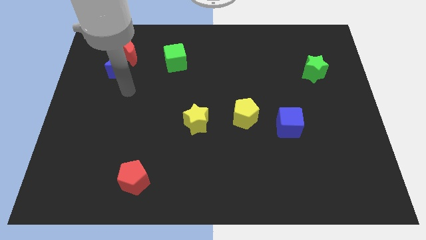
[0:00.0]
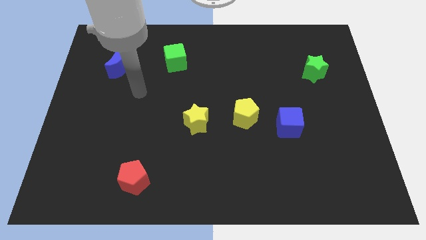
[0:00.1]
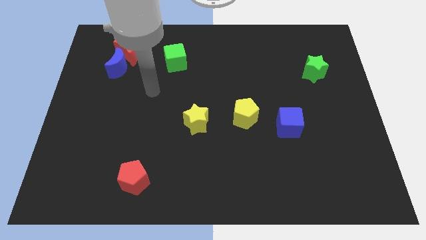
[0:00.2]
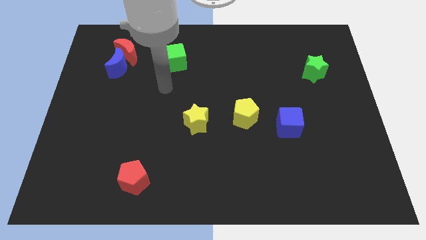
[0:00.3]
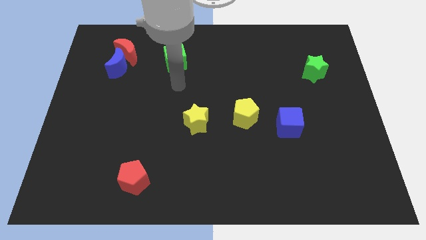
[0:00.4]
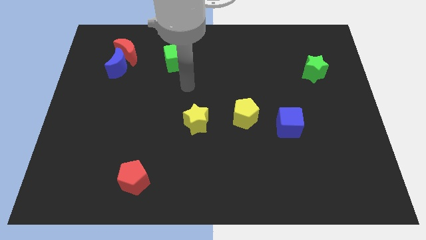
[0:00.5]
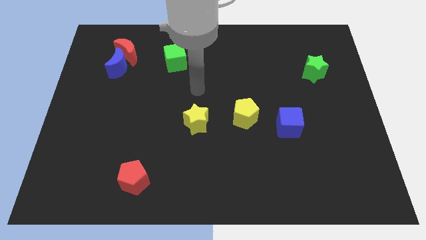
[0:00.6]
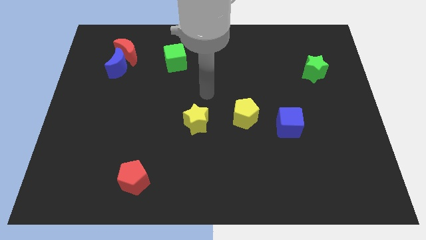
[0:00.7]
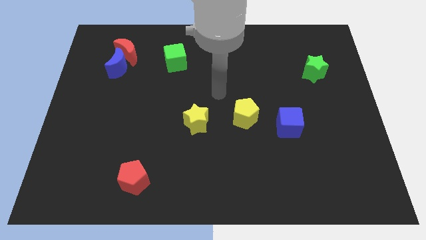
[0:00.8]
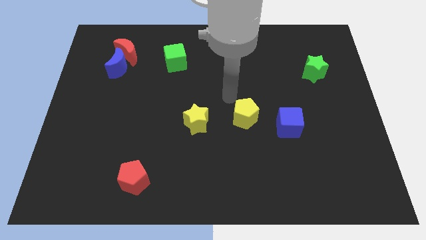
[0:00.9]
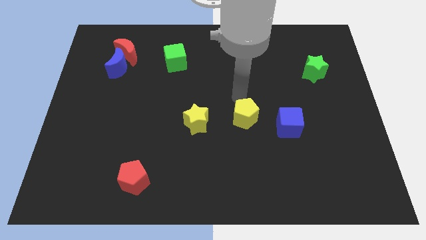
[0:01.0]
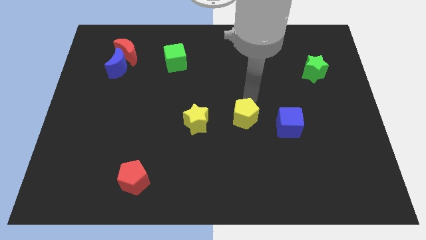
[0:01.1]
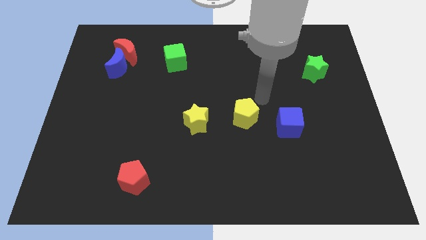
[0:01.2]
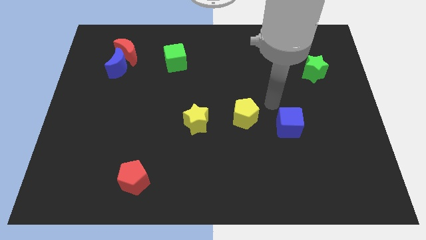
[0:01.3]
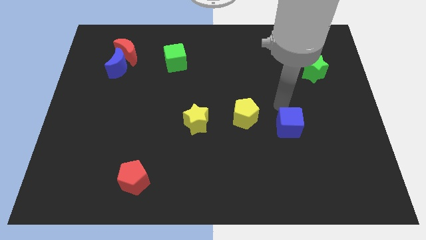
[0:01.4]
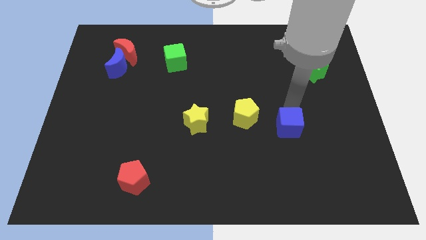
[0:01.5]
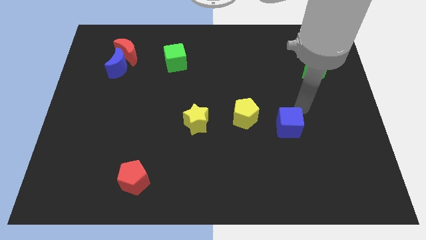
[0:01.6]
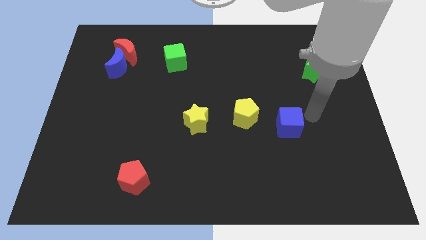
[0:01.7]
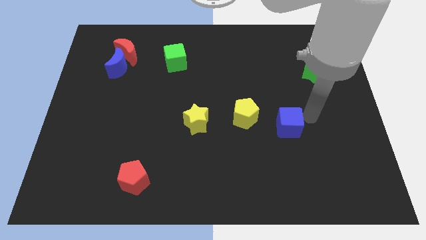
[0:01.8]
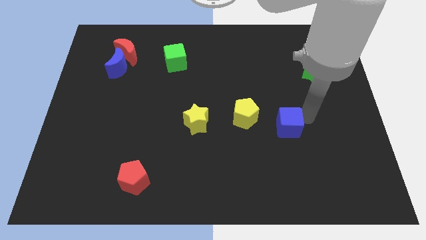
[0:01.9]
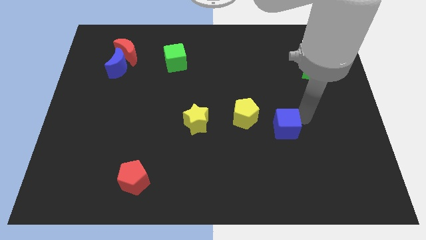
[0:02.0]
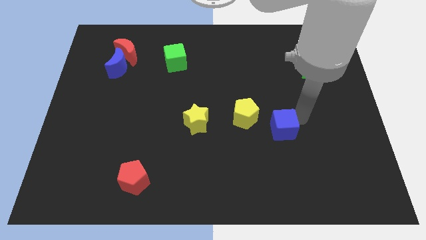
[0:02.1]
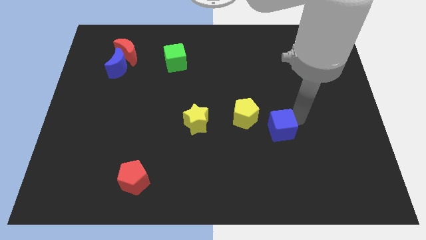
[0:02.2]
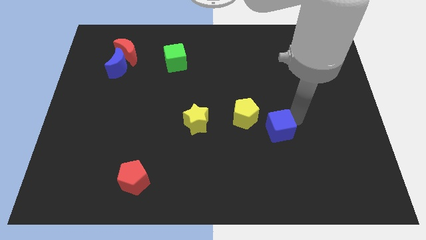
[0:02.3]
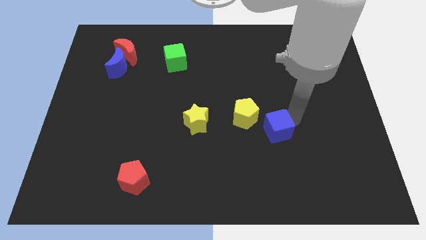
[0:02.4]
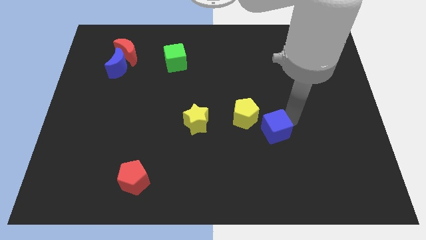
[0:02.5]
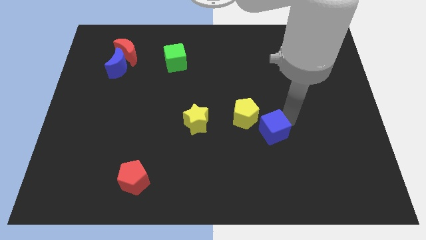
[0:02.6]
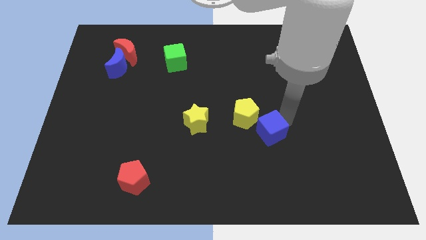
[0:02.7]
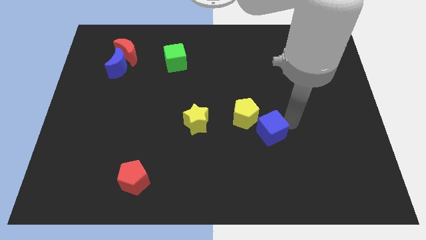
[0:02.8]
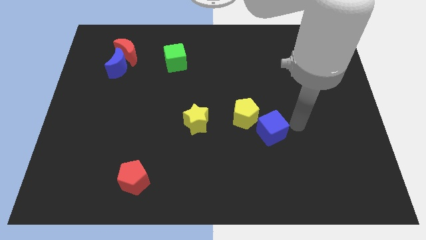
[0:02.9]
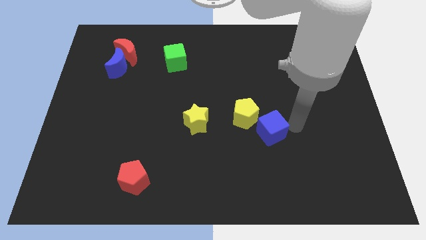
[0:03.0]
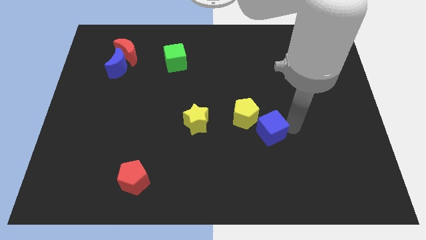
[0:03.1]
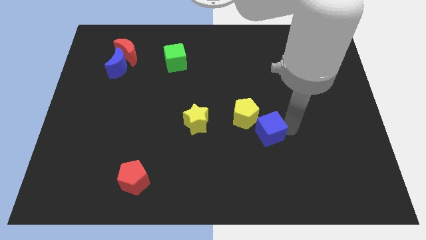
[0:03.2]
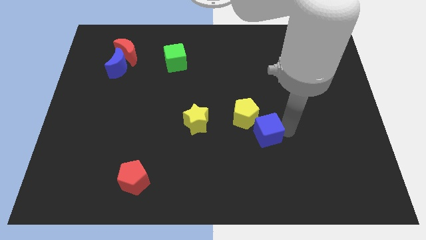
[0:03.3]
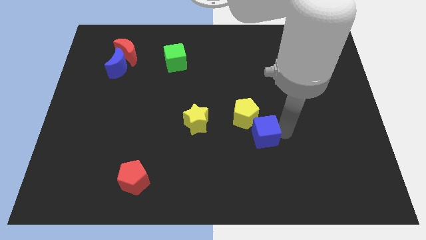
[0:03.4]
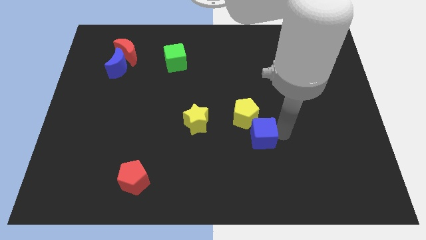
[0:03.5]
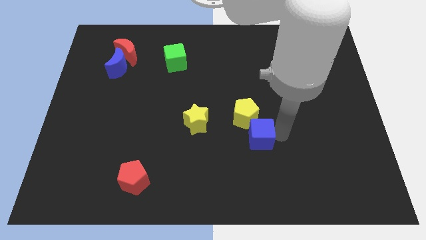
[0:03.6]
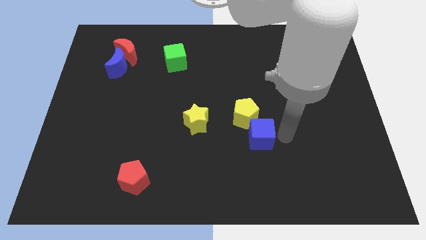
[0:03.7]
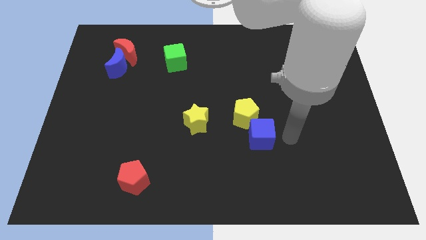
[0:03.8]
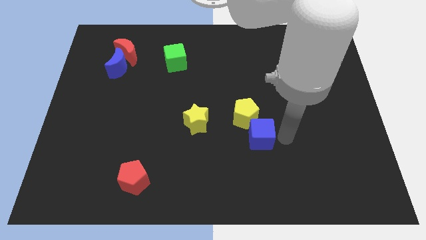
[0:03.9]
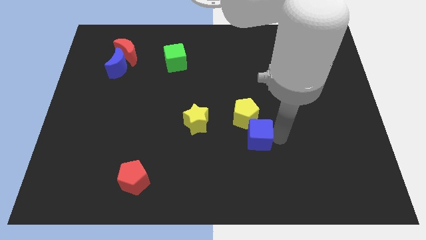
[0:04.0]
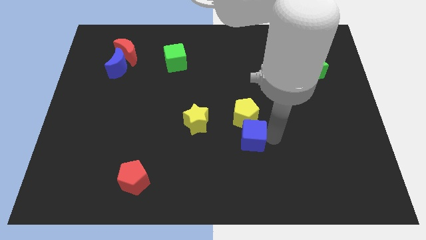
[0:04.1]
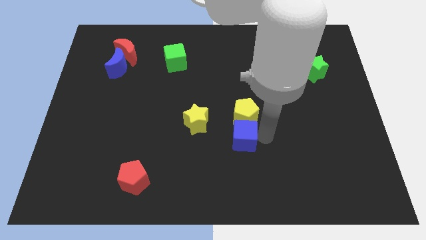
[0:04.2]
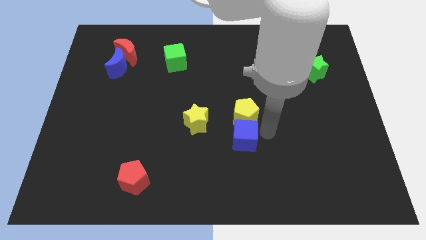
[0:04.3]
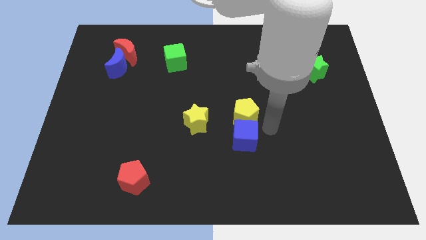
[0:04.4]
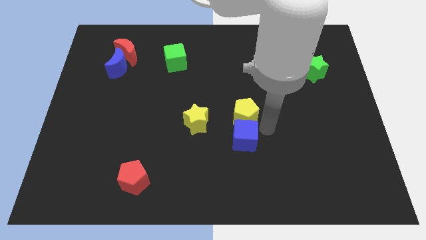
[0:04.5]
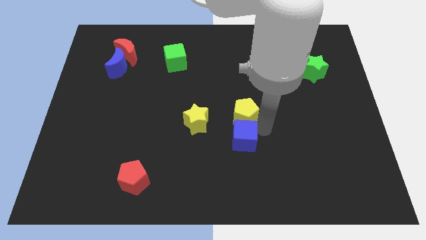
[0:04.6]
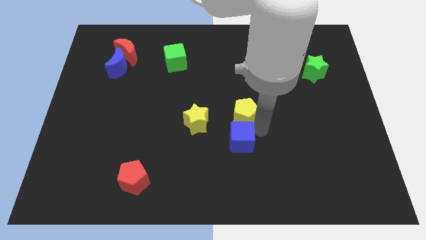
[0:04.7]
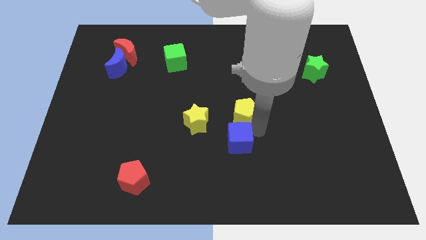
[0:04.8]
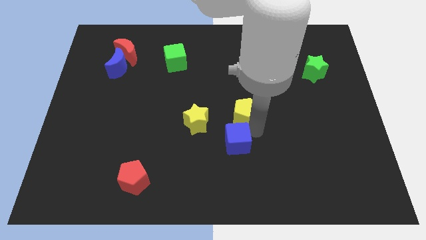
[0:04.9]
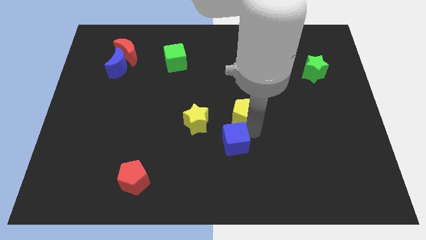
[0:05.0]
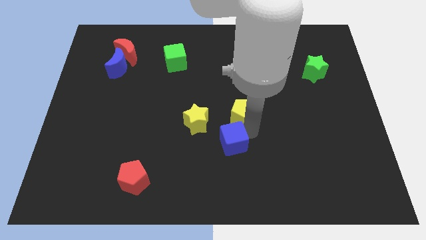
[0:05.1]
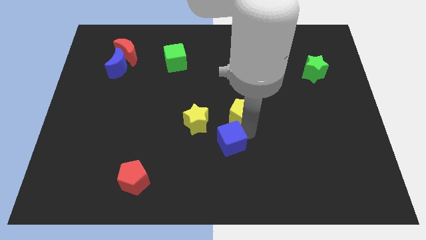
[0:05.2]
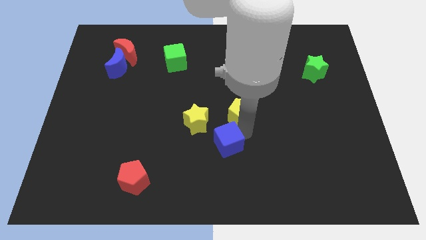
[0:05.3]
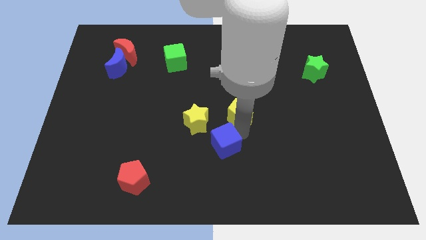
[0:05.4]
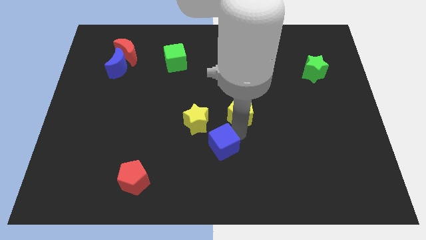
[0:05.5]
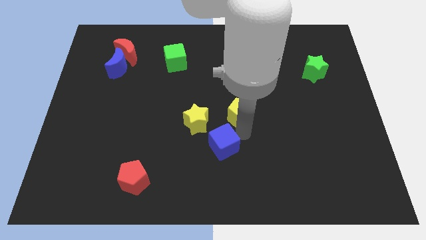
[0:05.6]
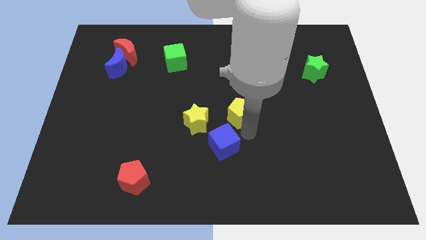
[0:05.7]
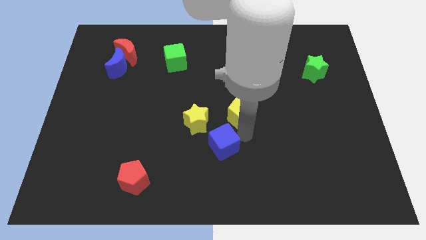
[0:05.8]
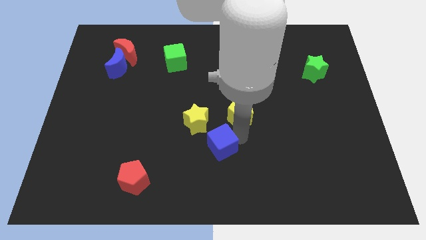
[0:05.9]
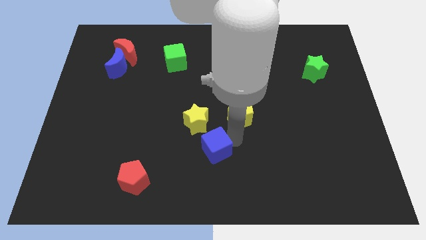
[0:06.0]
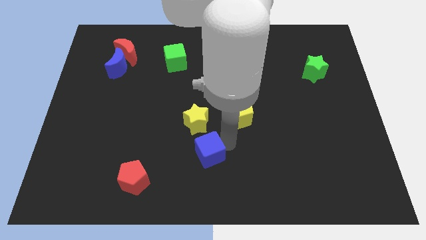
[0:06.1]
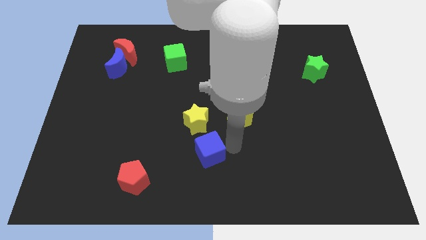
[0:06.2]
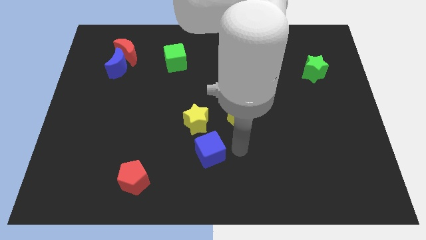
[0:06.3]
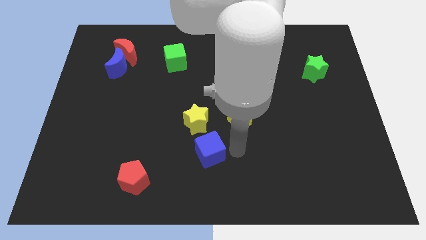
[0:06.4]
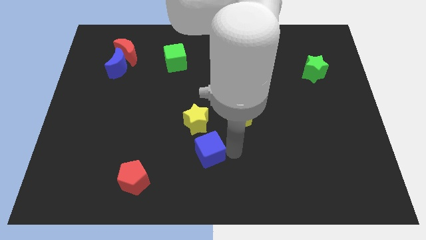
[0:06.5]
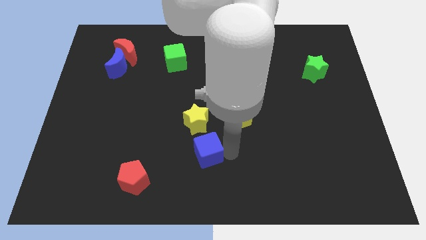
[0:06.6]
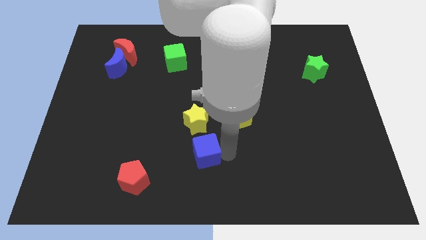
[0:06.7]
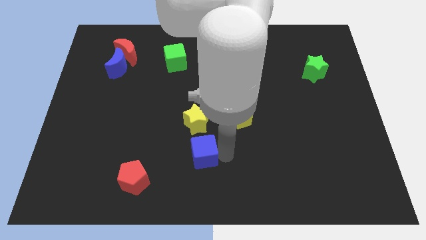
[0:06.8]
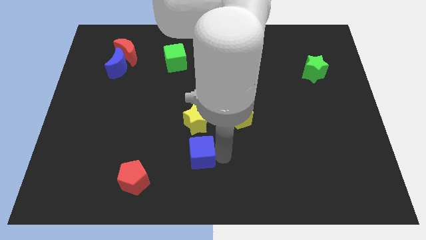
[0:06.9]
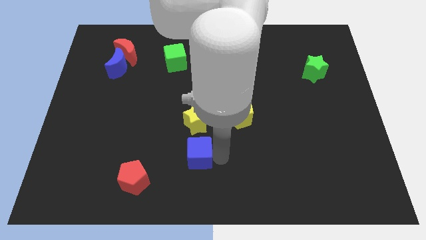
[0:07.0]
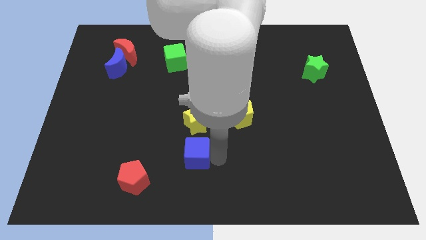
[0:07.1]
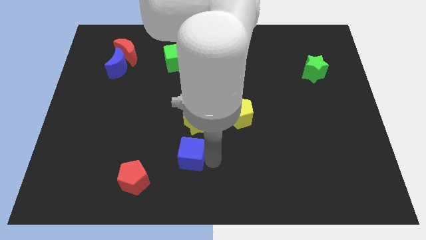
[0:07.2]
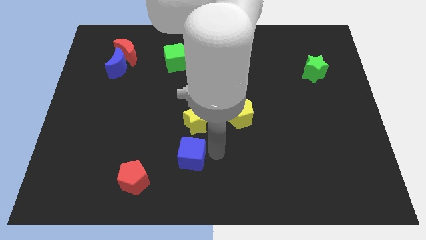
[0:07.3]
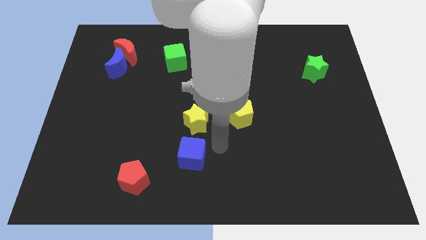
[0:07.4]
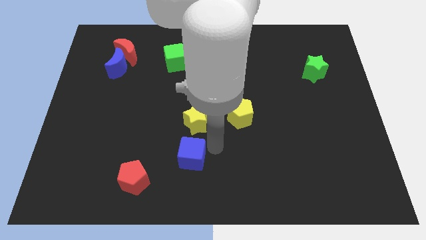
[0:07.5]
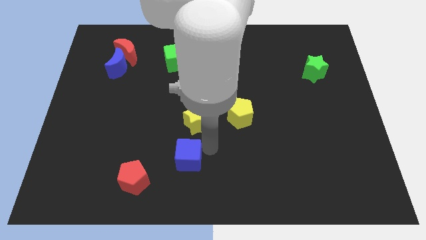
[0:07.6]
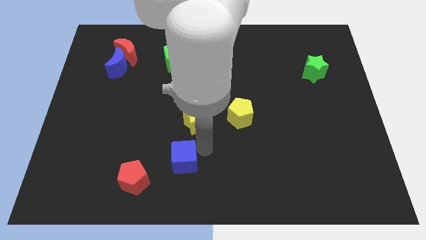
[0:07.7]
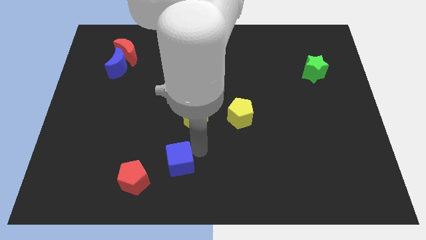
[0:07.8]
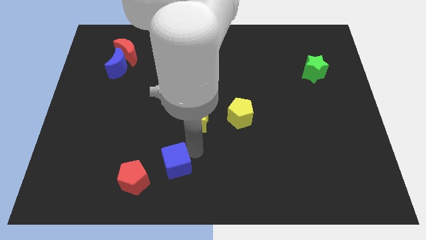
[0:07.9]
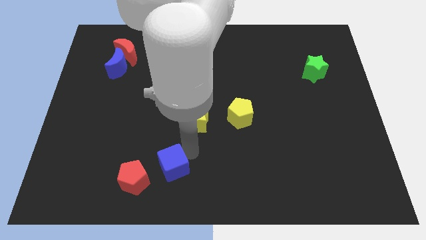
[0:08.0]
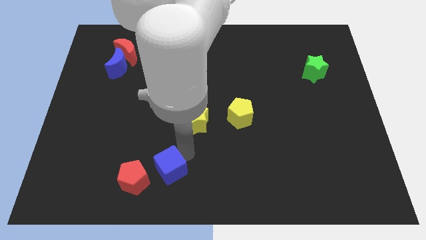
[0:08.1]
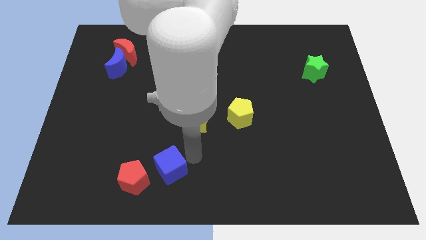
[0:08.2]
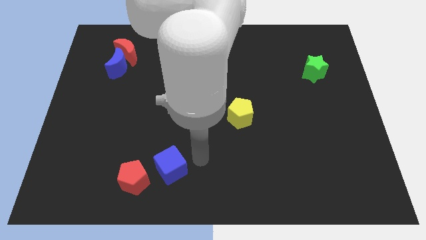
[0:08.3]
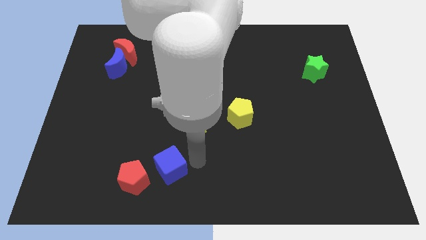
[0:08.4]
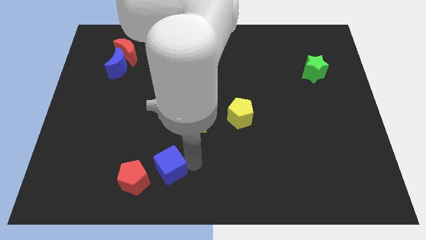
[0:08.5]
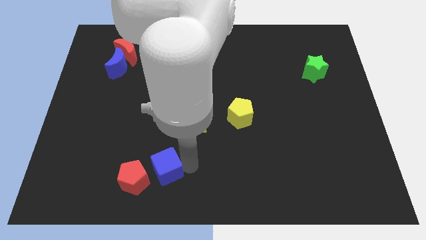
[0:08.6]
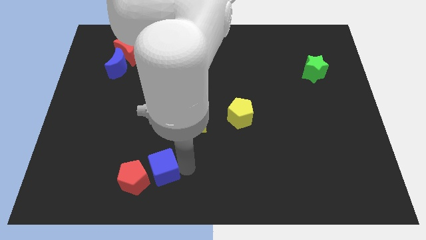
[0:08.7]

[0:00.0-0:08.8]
put the blue cube towards the red pentagon
